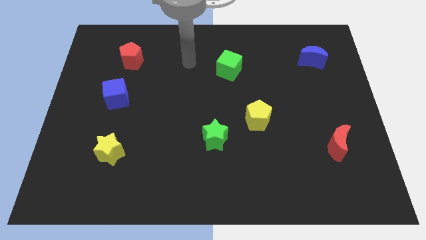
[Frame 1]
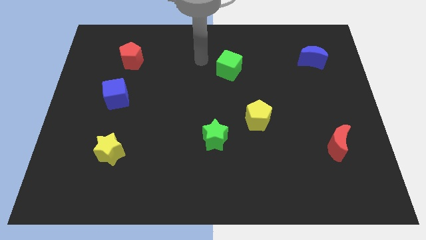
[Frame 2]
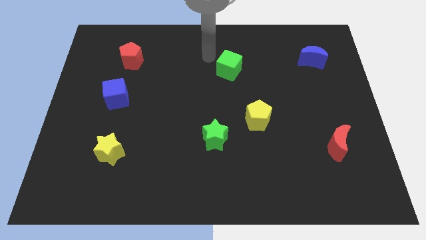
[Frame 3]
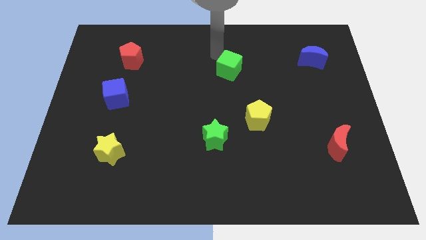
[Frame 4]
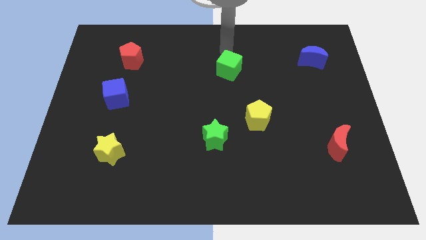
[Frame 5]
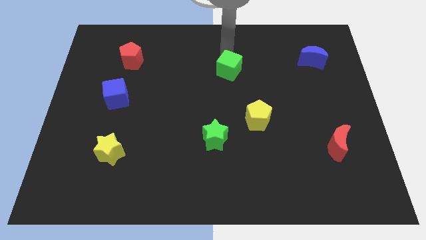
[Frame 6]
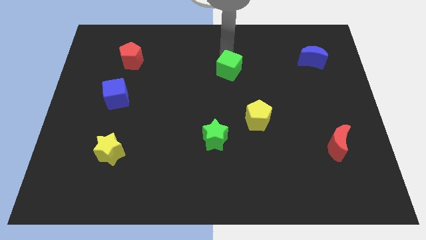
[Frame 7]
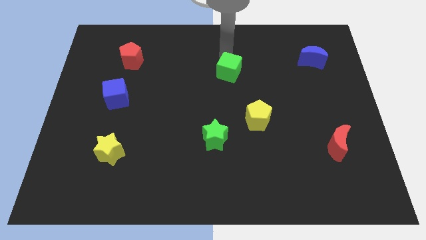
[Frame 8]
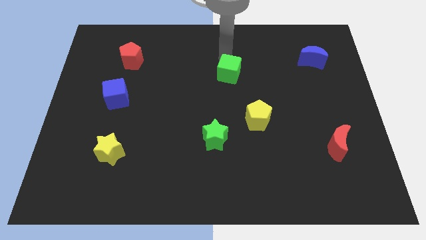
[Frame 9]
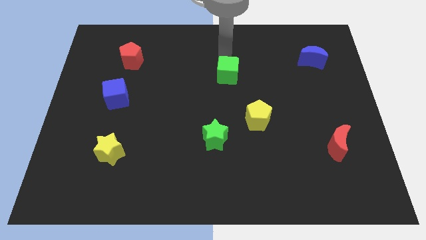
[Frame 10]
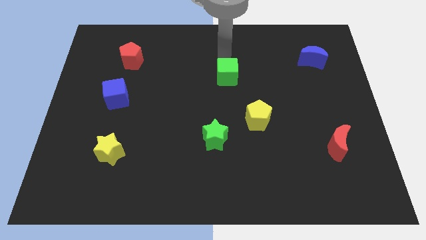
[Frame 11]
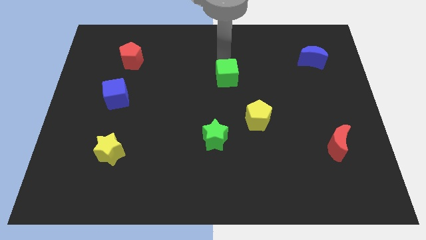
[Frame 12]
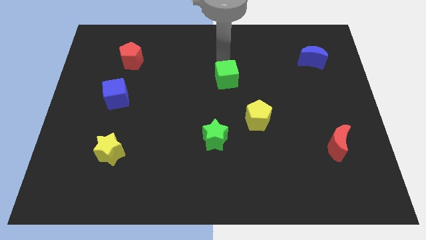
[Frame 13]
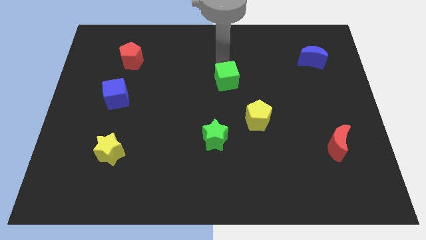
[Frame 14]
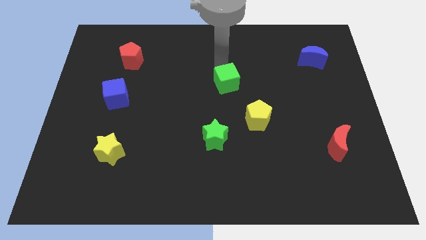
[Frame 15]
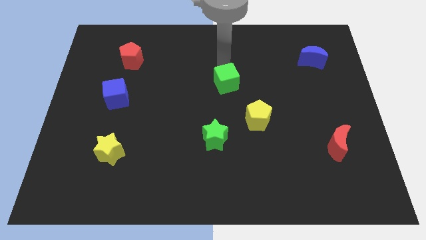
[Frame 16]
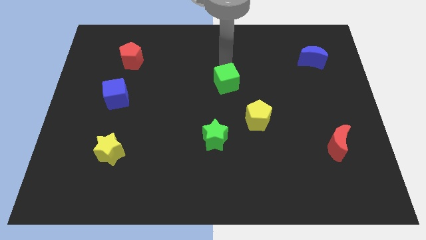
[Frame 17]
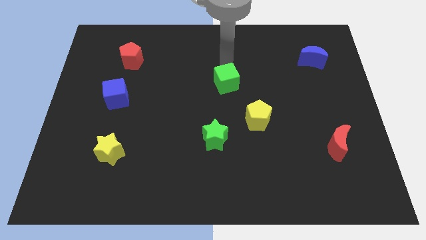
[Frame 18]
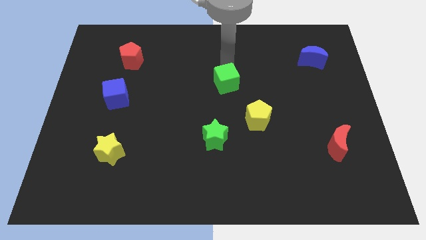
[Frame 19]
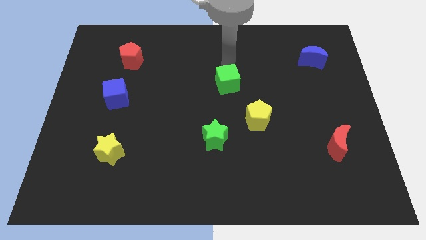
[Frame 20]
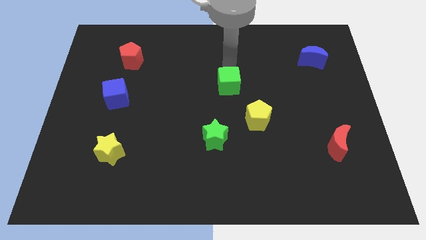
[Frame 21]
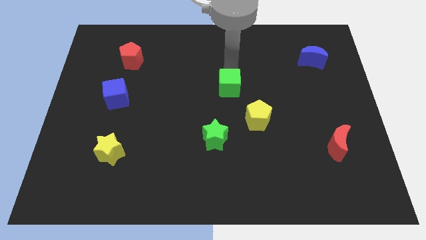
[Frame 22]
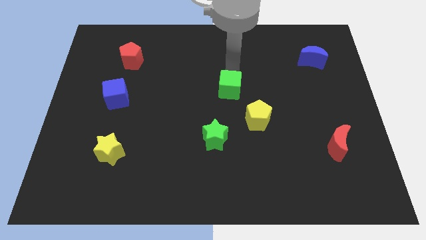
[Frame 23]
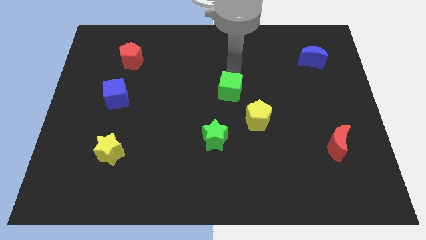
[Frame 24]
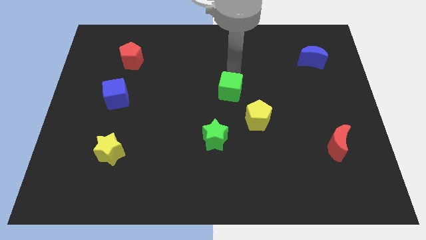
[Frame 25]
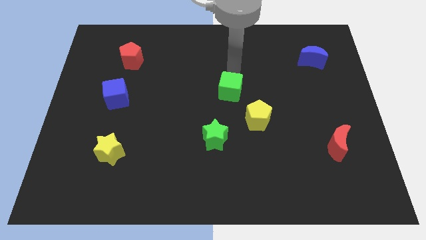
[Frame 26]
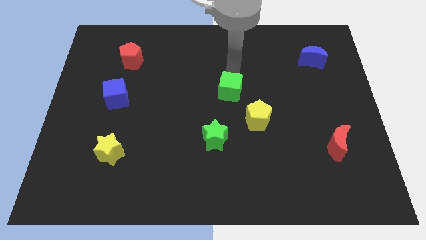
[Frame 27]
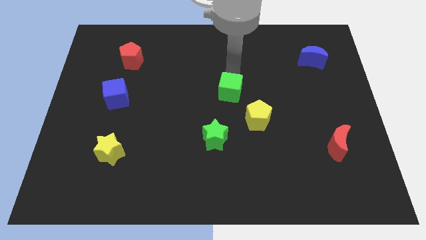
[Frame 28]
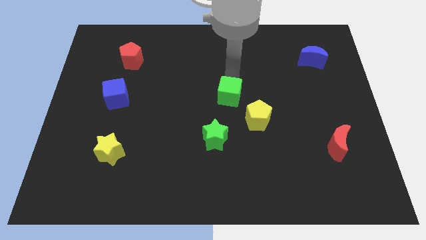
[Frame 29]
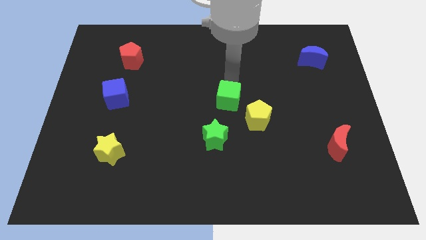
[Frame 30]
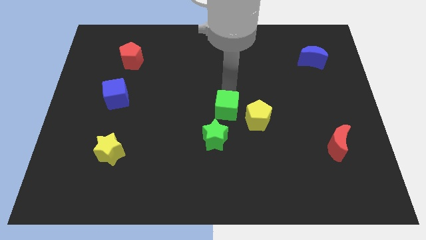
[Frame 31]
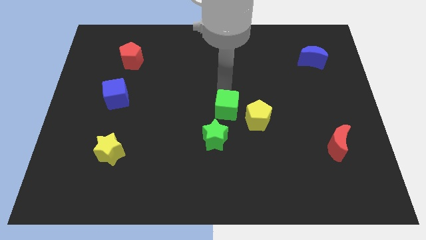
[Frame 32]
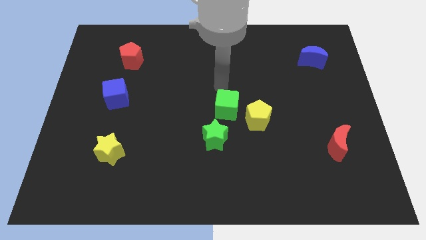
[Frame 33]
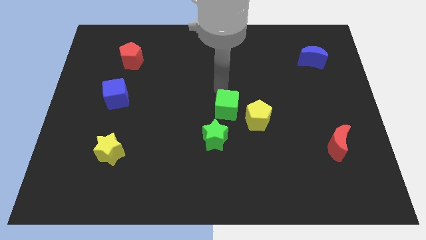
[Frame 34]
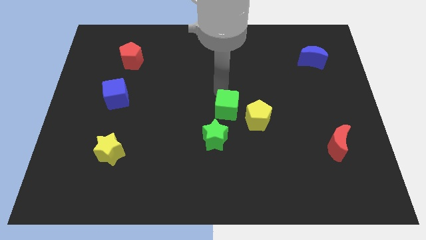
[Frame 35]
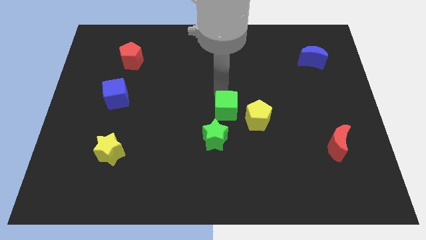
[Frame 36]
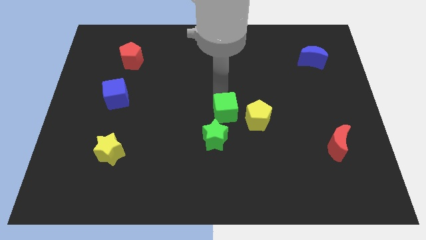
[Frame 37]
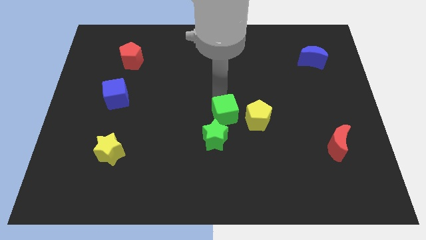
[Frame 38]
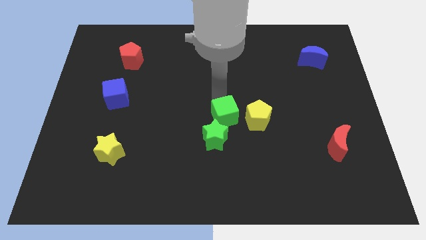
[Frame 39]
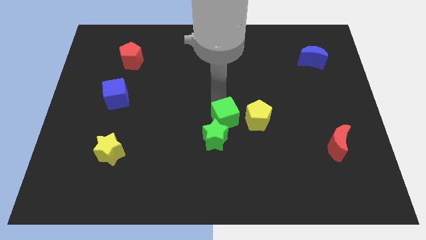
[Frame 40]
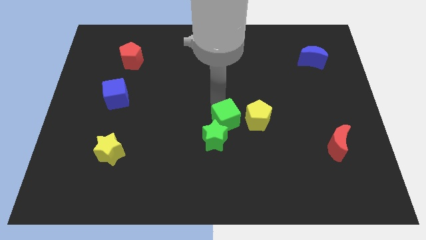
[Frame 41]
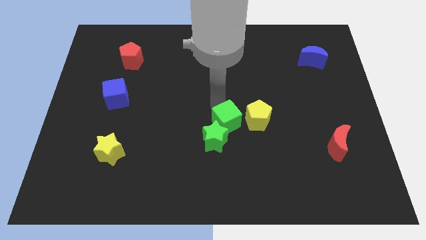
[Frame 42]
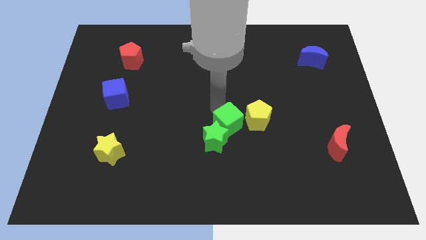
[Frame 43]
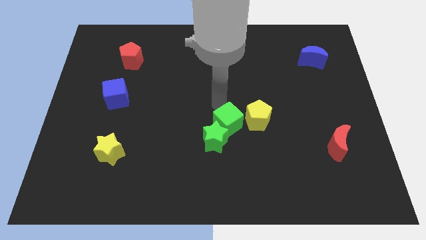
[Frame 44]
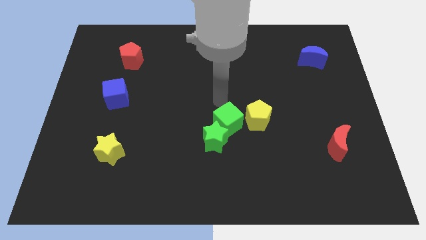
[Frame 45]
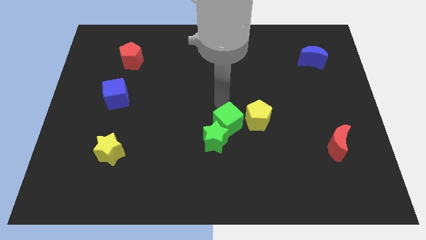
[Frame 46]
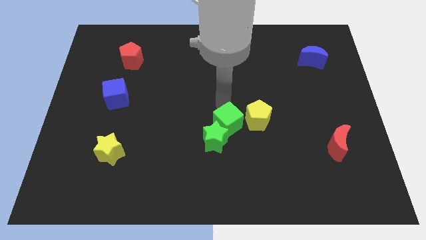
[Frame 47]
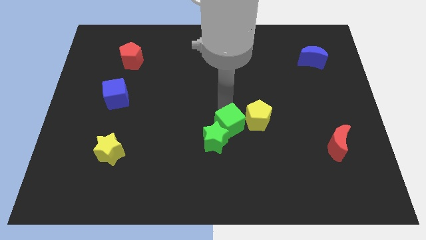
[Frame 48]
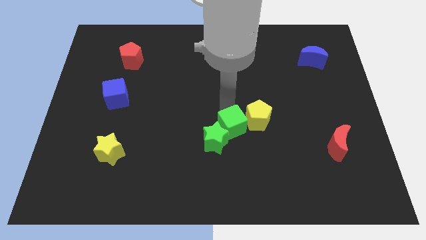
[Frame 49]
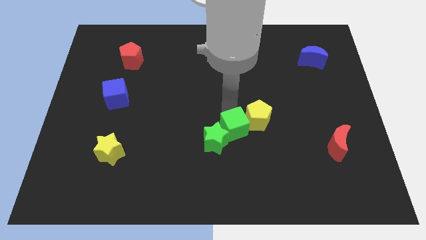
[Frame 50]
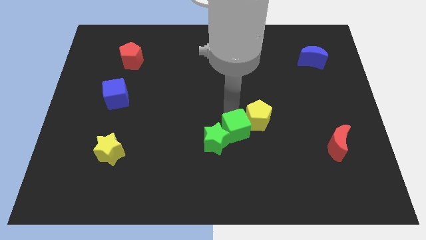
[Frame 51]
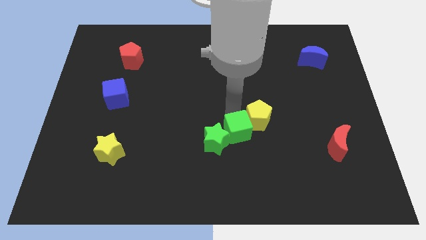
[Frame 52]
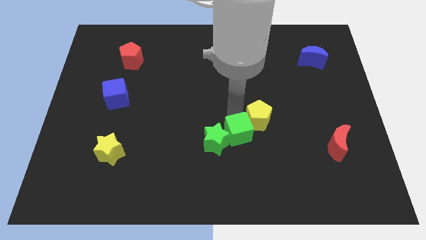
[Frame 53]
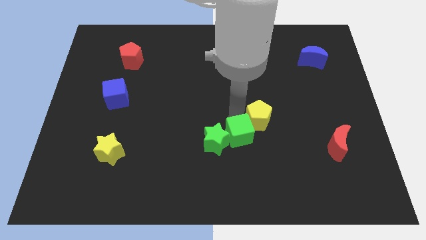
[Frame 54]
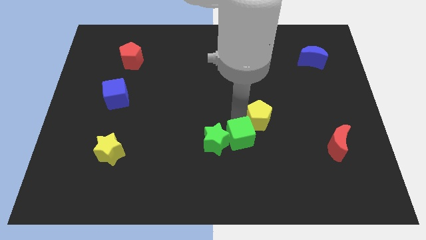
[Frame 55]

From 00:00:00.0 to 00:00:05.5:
move the green cube diagonally down and to the right of the green star
